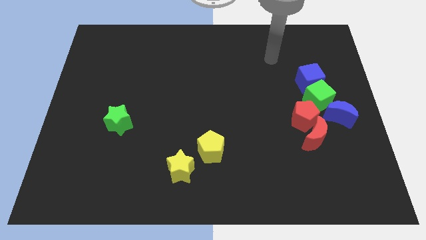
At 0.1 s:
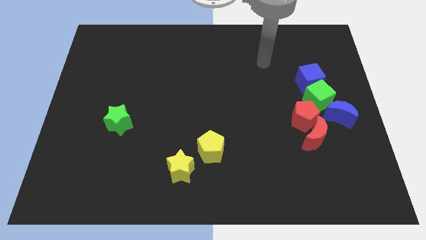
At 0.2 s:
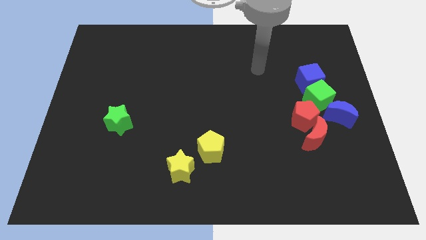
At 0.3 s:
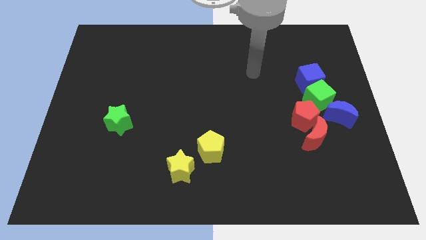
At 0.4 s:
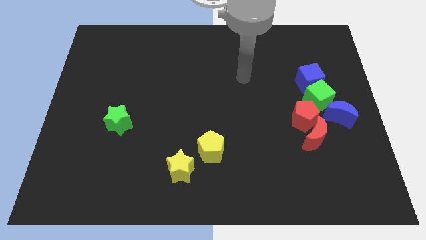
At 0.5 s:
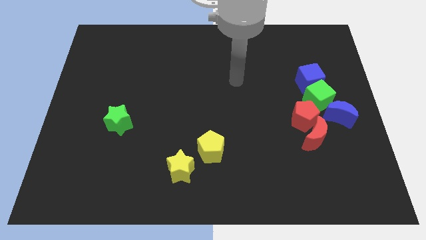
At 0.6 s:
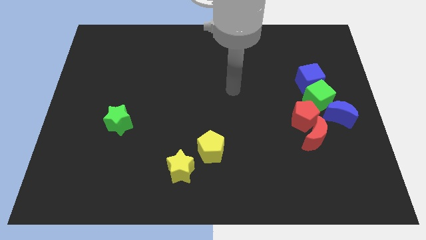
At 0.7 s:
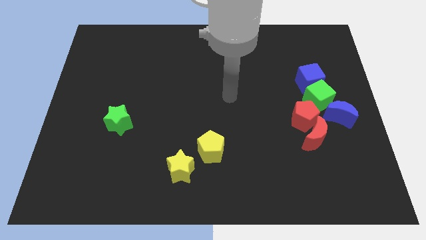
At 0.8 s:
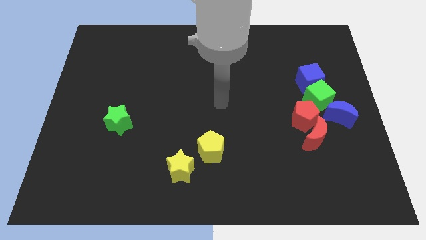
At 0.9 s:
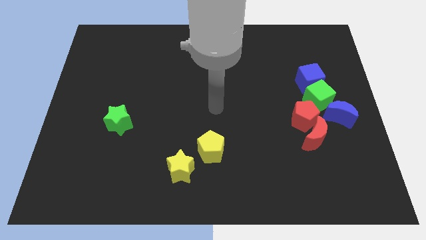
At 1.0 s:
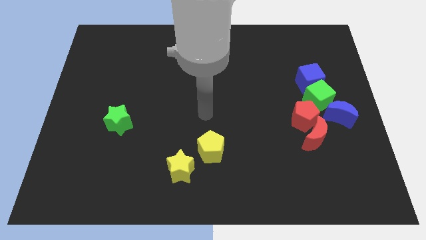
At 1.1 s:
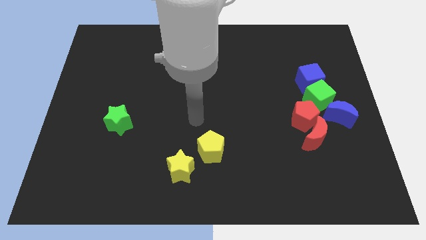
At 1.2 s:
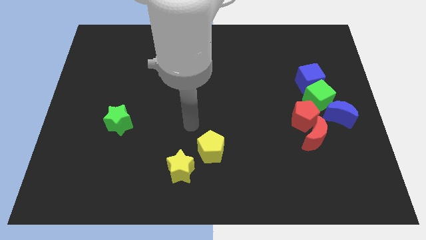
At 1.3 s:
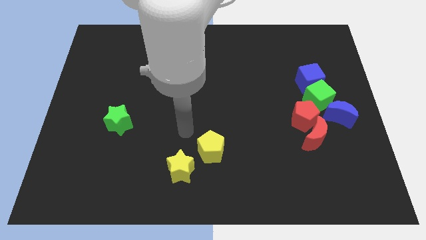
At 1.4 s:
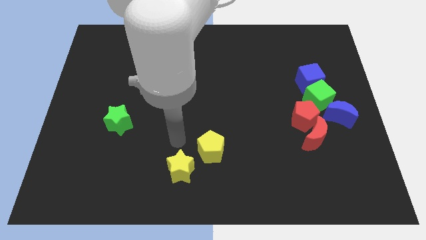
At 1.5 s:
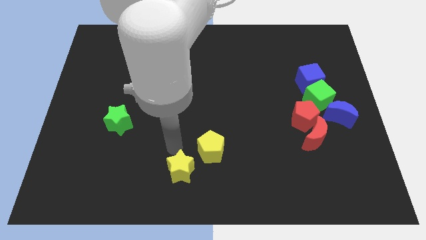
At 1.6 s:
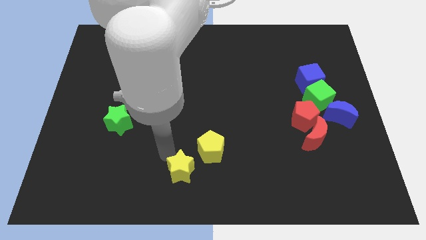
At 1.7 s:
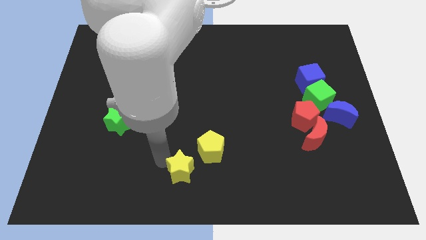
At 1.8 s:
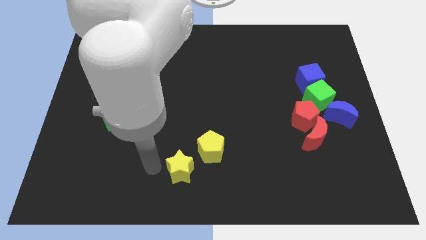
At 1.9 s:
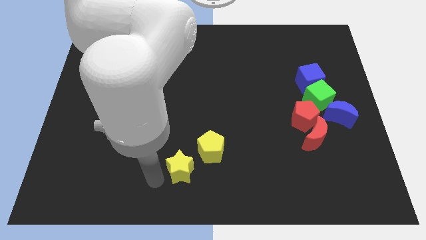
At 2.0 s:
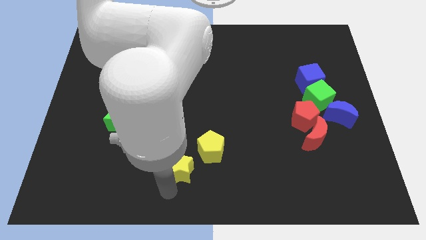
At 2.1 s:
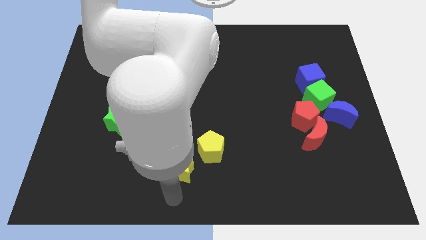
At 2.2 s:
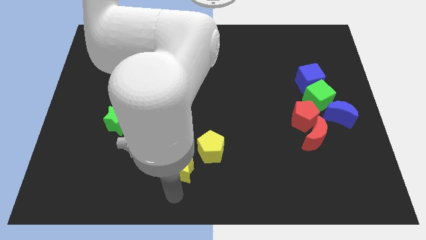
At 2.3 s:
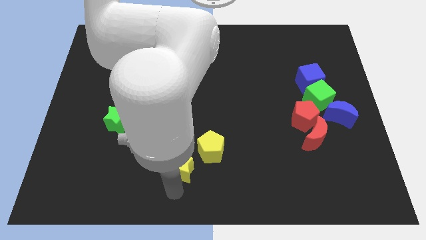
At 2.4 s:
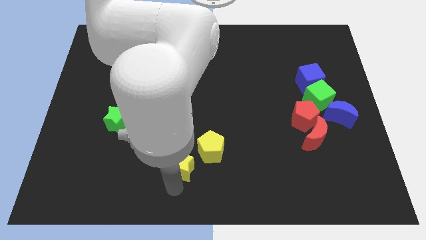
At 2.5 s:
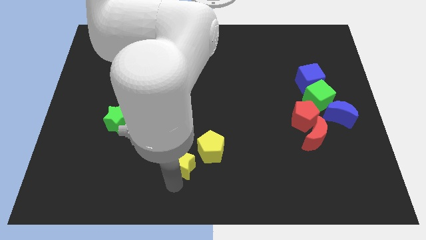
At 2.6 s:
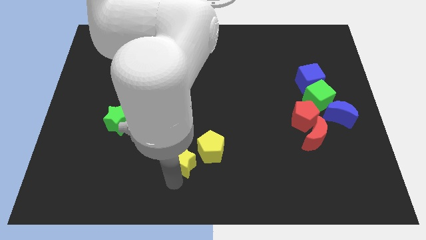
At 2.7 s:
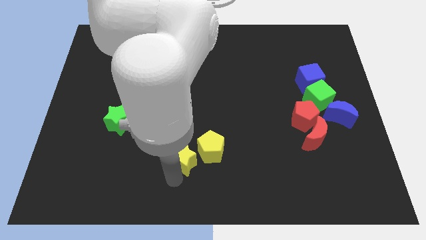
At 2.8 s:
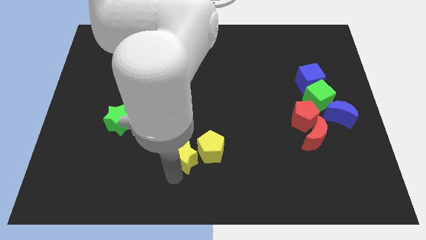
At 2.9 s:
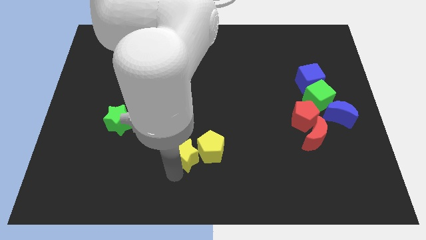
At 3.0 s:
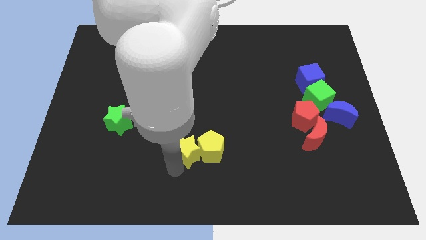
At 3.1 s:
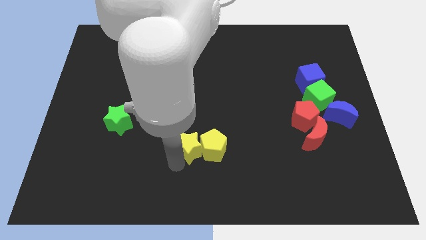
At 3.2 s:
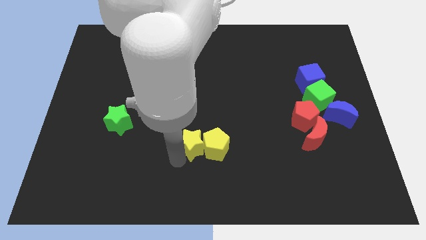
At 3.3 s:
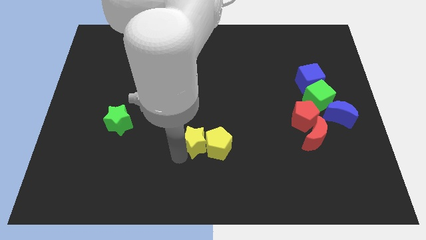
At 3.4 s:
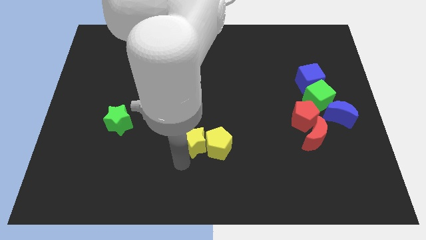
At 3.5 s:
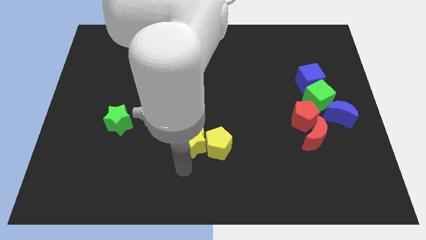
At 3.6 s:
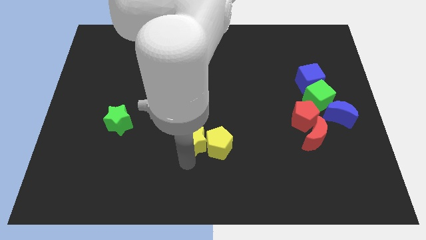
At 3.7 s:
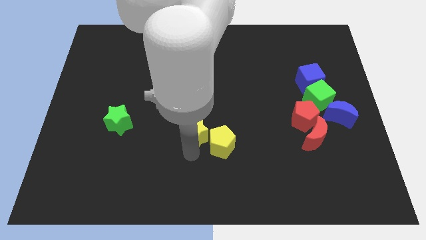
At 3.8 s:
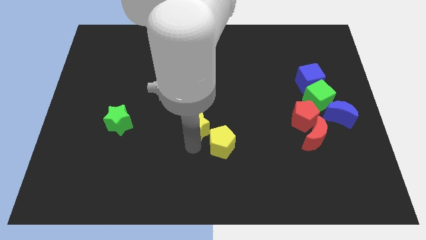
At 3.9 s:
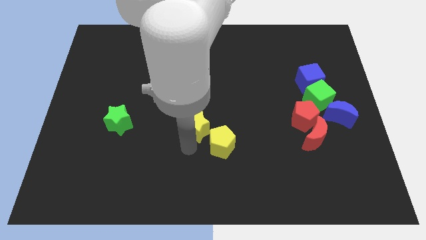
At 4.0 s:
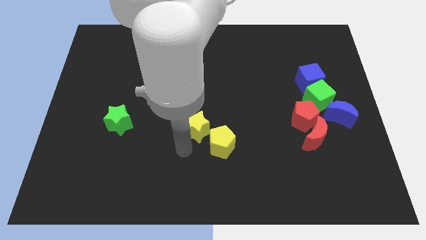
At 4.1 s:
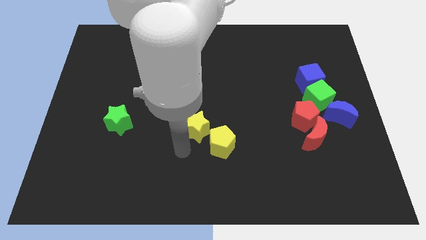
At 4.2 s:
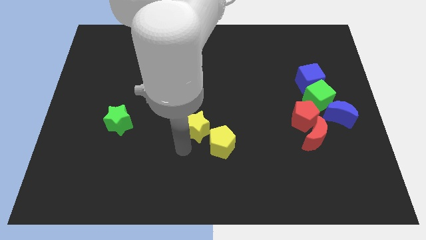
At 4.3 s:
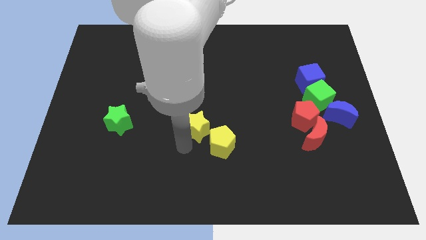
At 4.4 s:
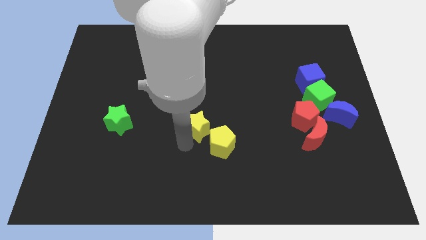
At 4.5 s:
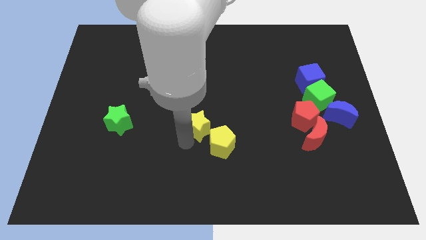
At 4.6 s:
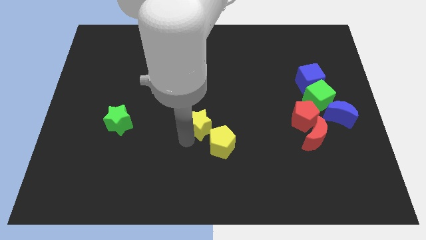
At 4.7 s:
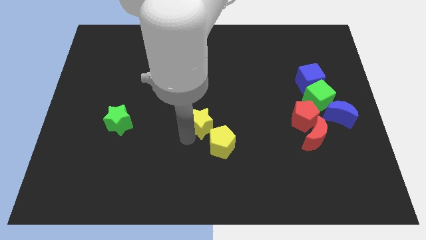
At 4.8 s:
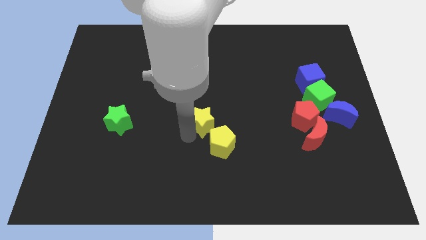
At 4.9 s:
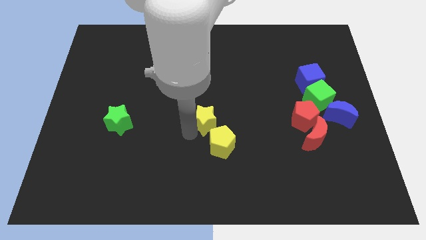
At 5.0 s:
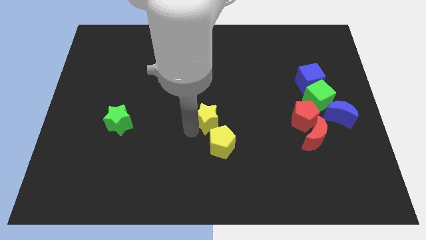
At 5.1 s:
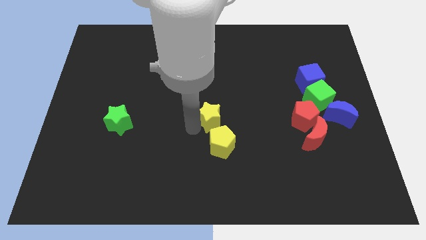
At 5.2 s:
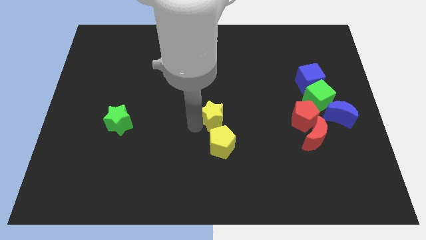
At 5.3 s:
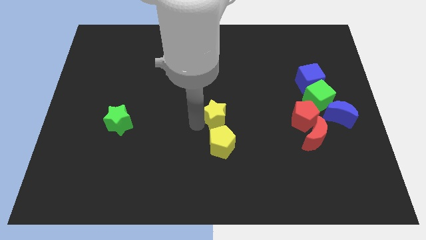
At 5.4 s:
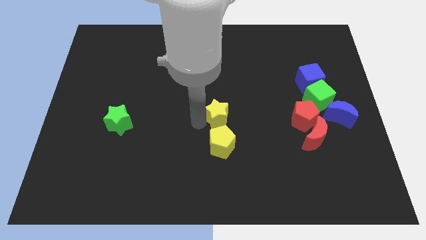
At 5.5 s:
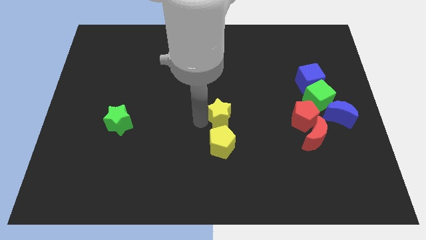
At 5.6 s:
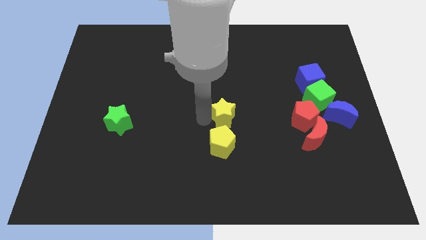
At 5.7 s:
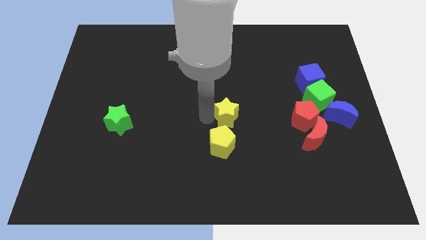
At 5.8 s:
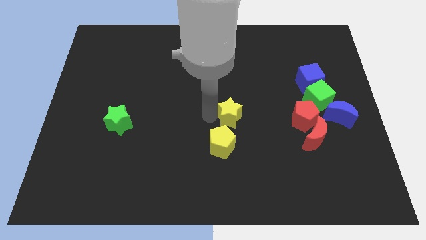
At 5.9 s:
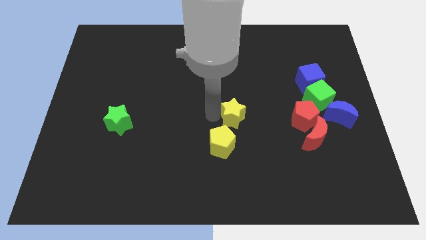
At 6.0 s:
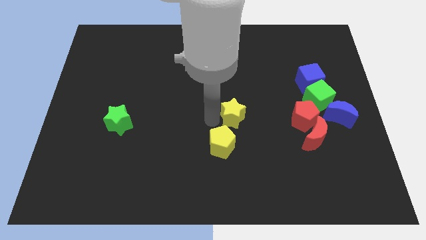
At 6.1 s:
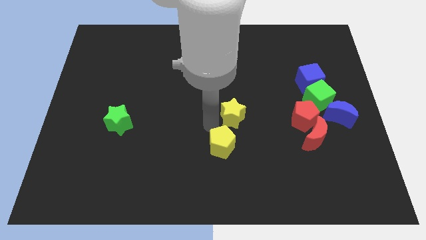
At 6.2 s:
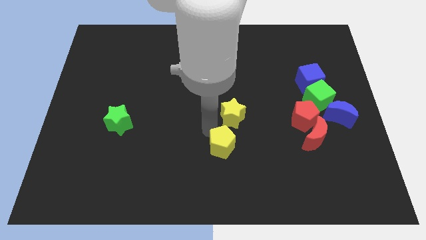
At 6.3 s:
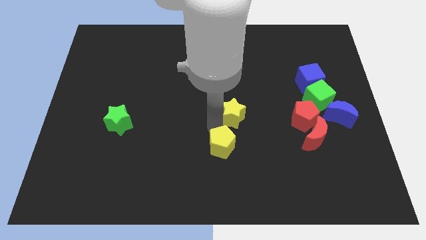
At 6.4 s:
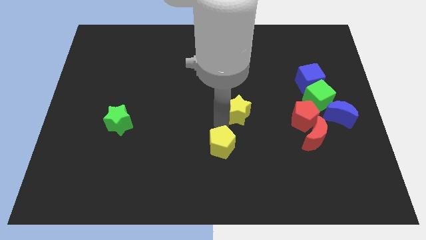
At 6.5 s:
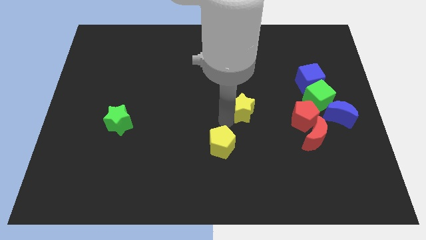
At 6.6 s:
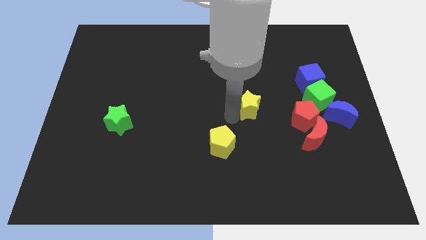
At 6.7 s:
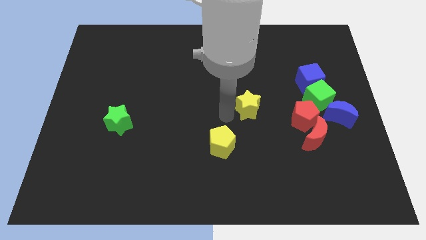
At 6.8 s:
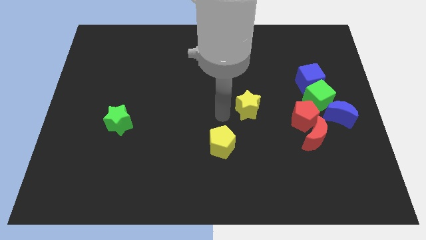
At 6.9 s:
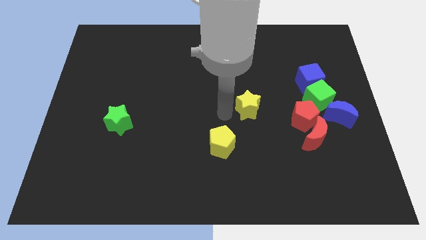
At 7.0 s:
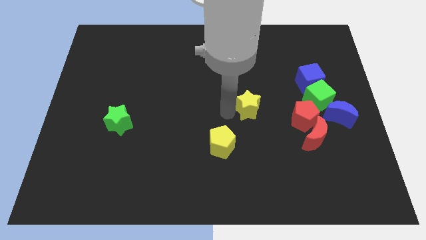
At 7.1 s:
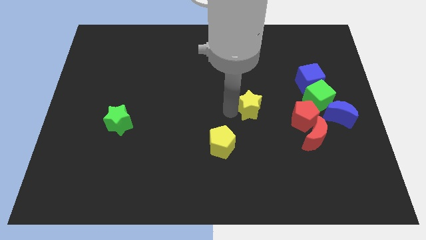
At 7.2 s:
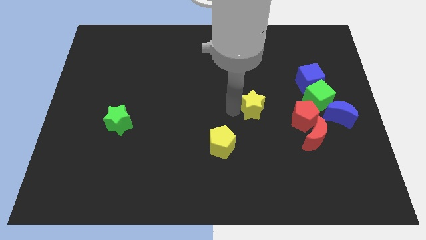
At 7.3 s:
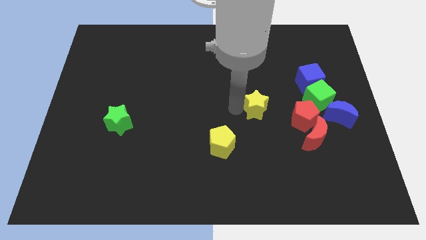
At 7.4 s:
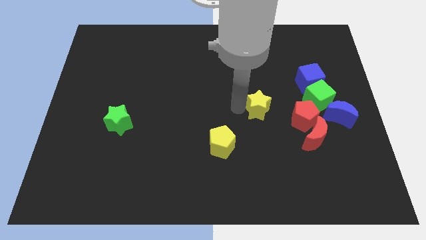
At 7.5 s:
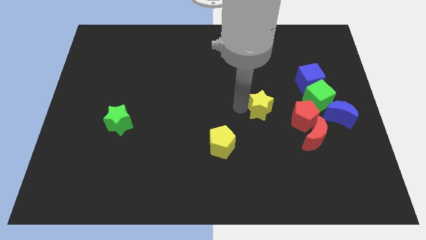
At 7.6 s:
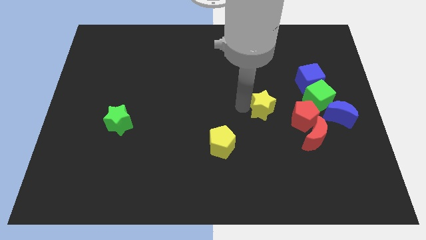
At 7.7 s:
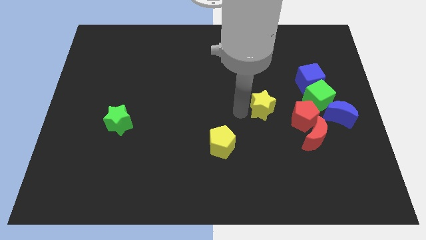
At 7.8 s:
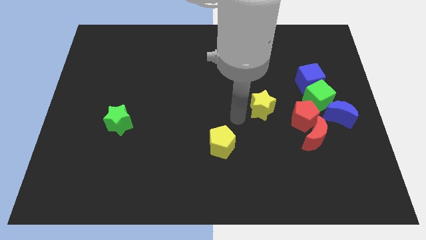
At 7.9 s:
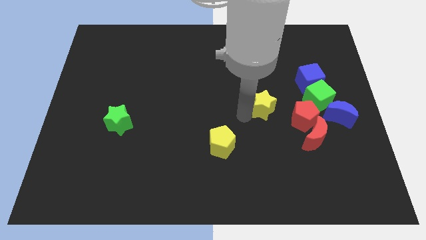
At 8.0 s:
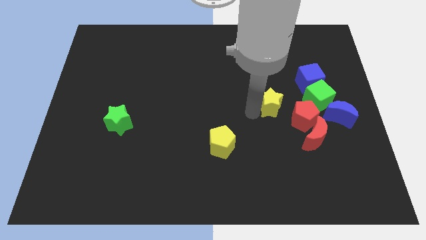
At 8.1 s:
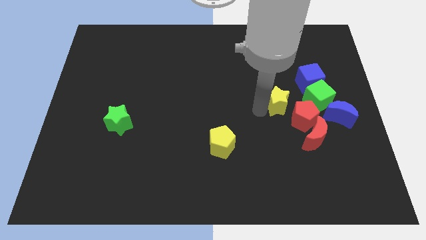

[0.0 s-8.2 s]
slide the yellow star diagonally down and to the left of the blue cube
